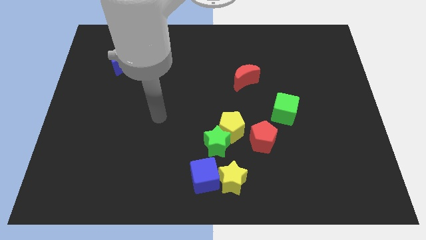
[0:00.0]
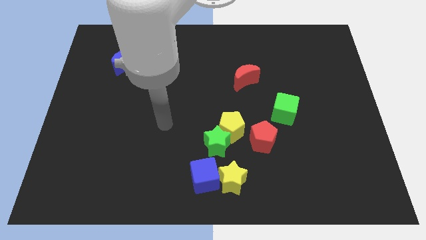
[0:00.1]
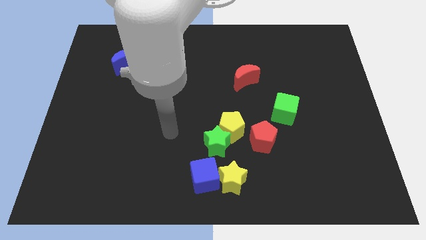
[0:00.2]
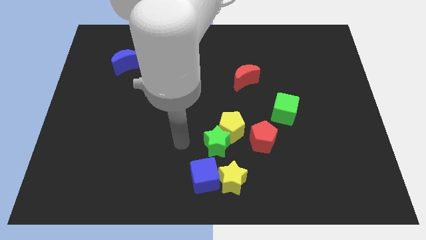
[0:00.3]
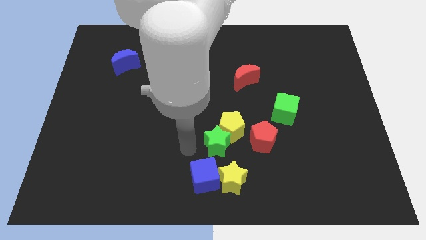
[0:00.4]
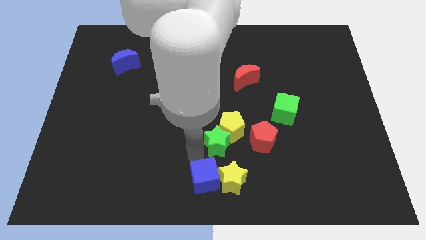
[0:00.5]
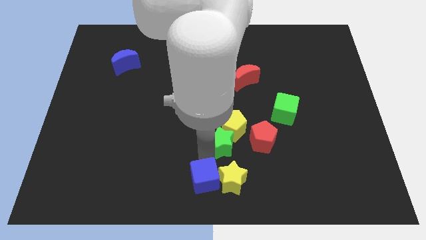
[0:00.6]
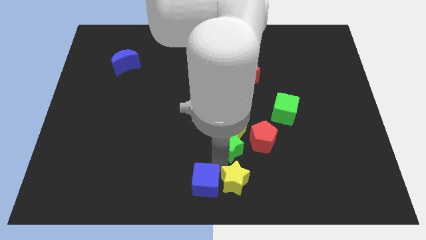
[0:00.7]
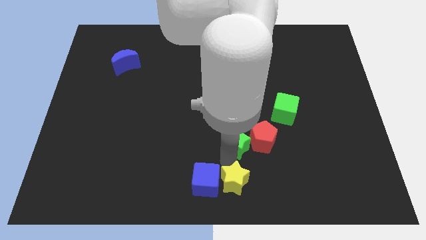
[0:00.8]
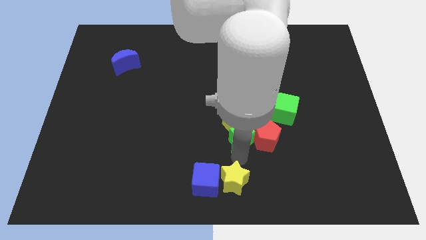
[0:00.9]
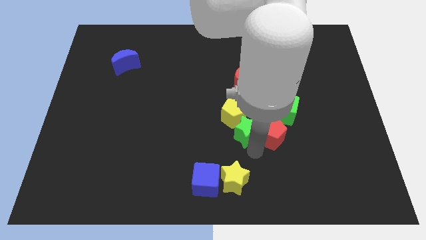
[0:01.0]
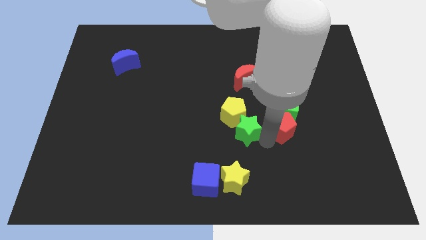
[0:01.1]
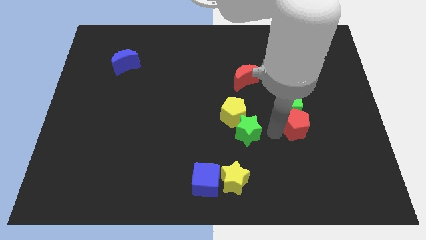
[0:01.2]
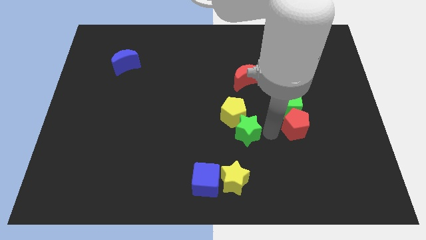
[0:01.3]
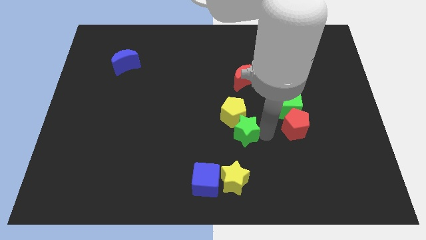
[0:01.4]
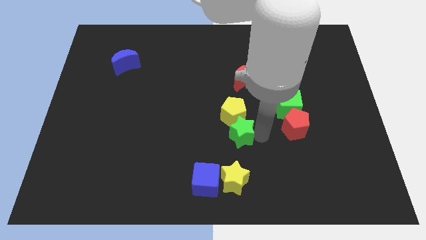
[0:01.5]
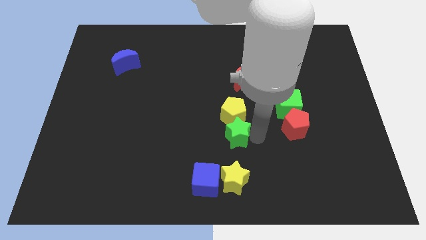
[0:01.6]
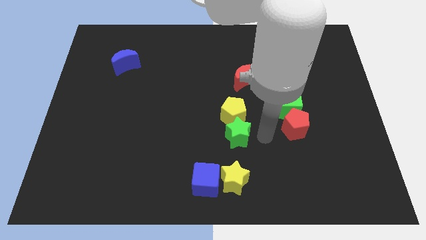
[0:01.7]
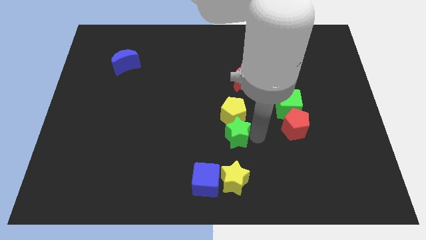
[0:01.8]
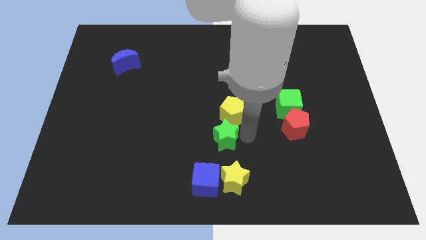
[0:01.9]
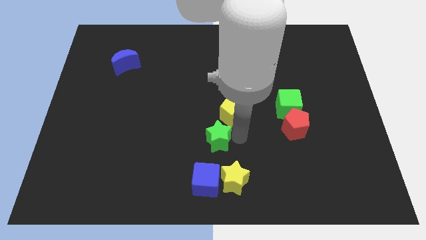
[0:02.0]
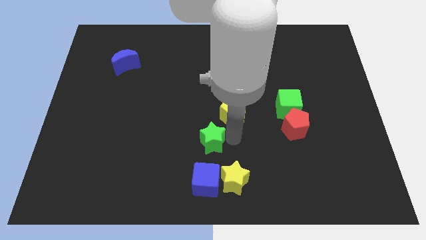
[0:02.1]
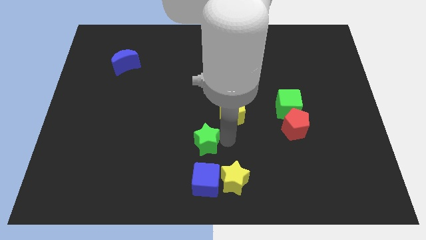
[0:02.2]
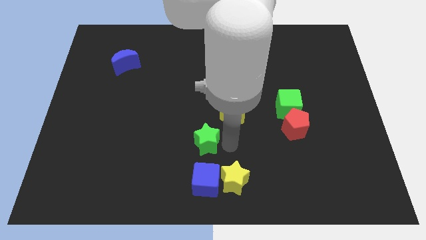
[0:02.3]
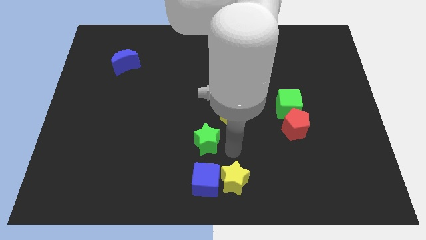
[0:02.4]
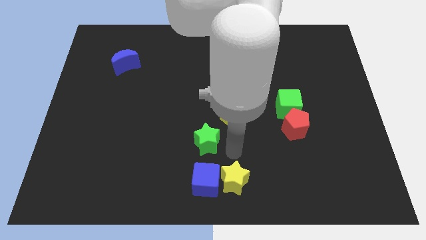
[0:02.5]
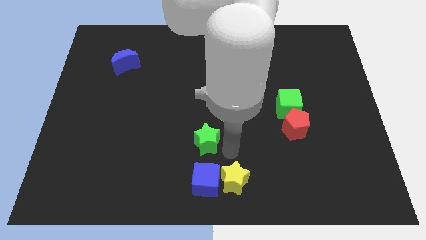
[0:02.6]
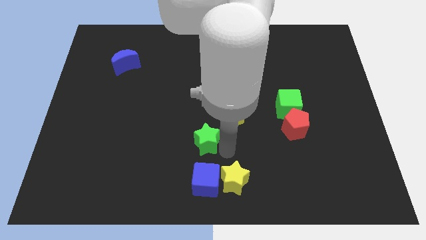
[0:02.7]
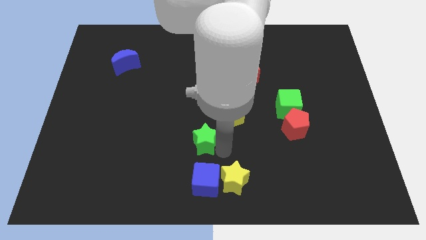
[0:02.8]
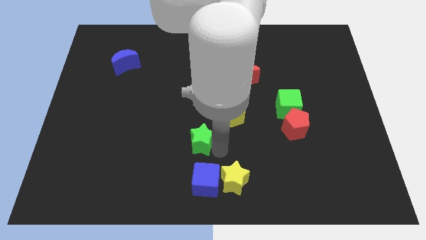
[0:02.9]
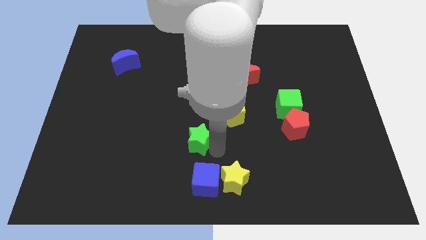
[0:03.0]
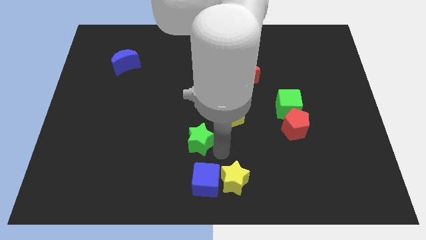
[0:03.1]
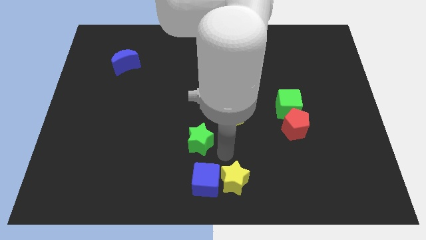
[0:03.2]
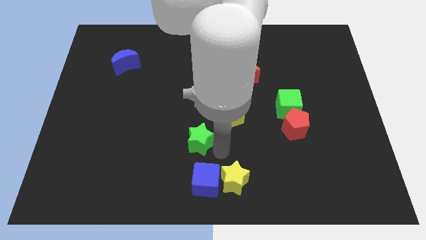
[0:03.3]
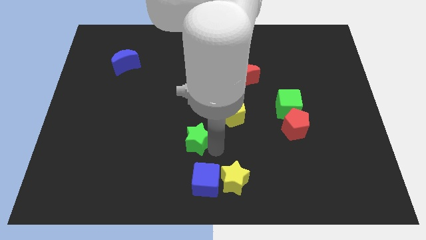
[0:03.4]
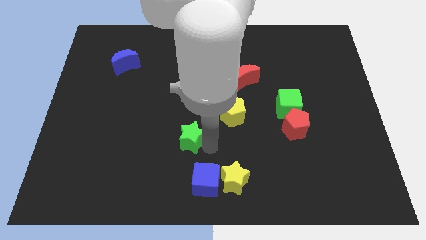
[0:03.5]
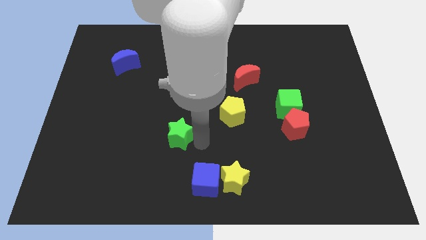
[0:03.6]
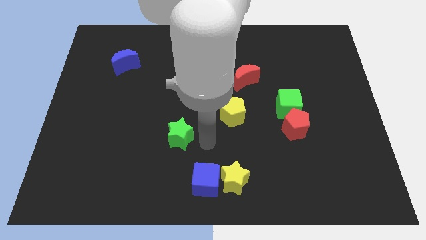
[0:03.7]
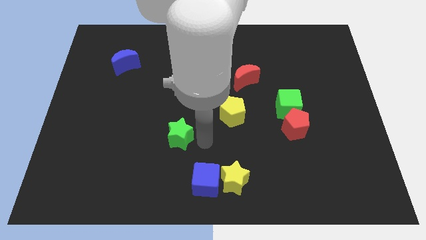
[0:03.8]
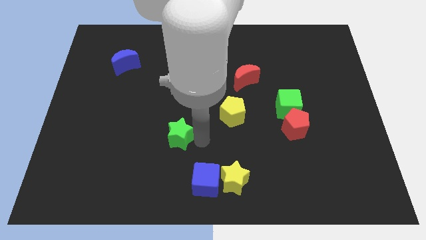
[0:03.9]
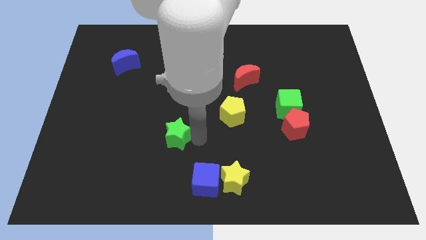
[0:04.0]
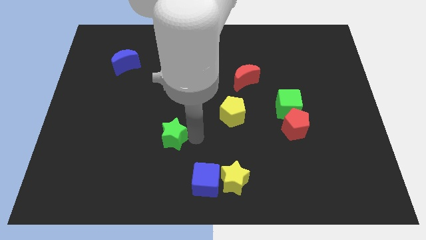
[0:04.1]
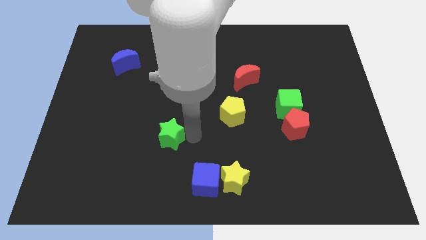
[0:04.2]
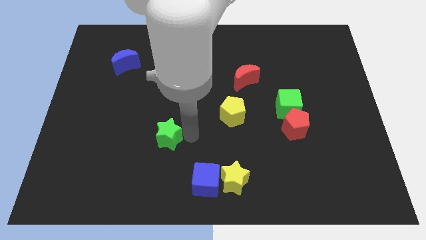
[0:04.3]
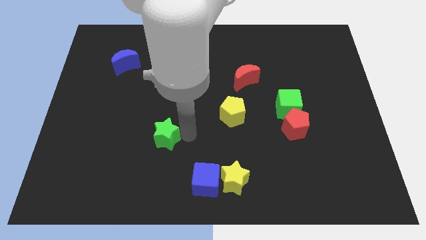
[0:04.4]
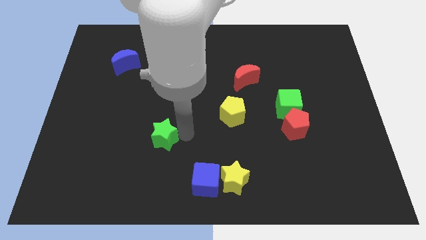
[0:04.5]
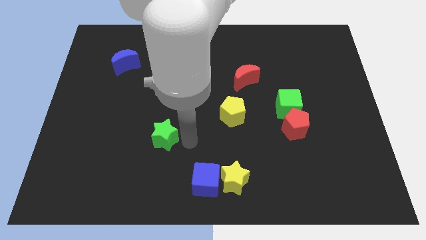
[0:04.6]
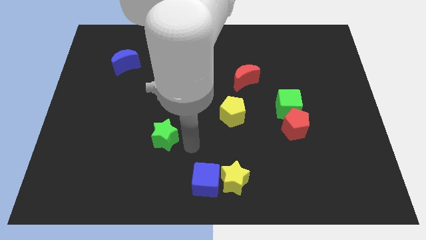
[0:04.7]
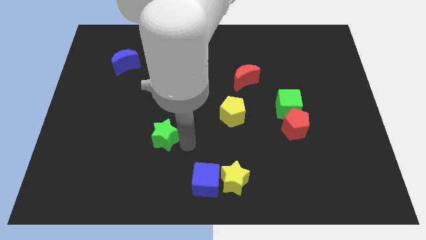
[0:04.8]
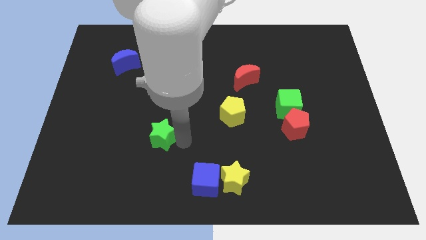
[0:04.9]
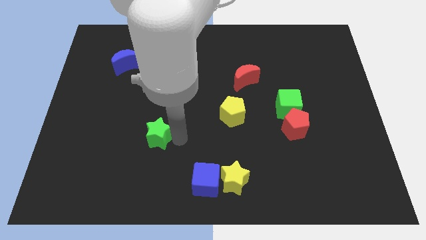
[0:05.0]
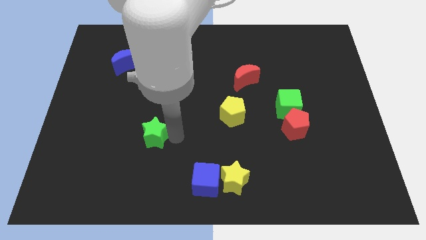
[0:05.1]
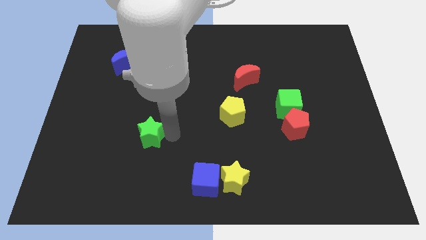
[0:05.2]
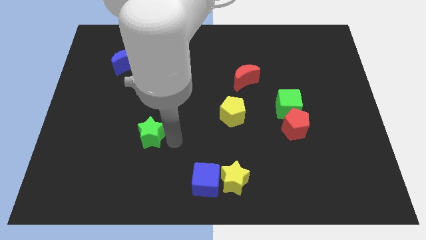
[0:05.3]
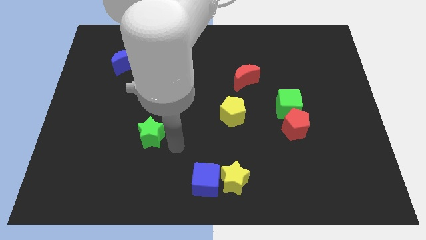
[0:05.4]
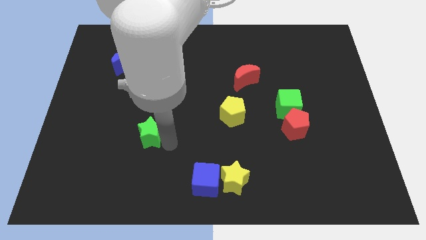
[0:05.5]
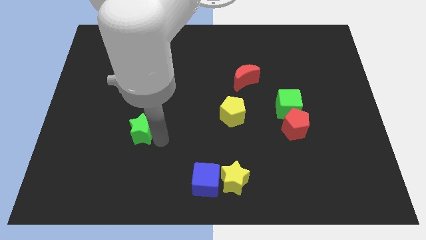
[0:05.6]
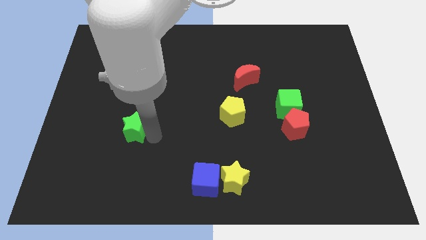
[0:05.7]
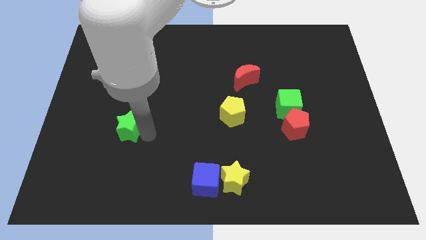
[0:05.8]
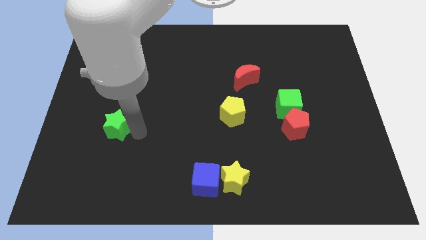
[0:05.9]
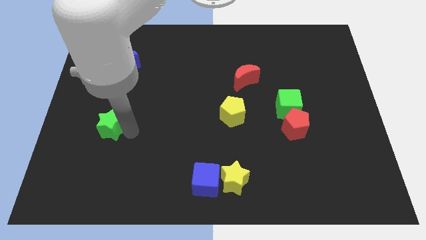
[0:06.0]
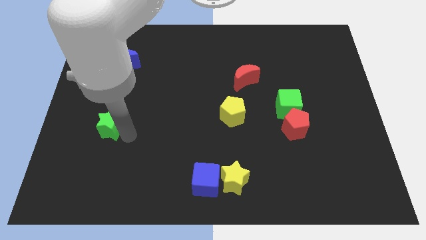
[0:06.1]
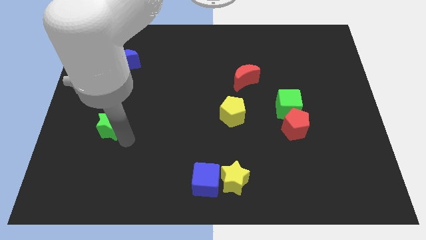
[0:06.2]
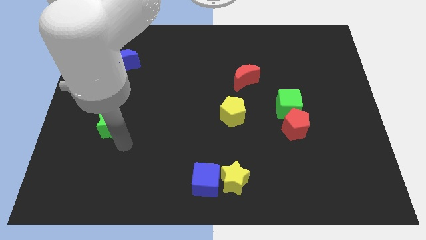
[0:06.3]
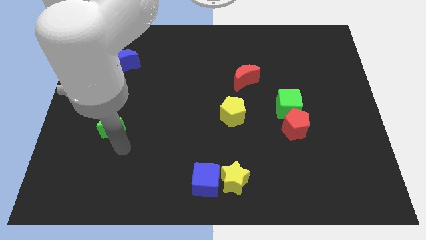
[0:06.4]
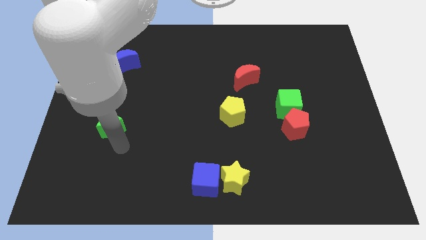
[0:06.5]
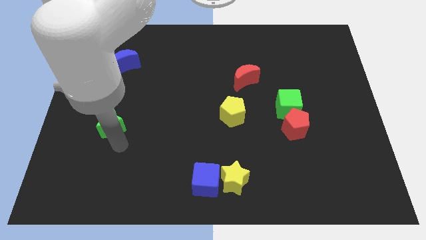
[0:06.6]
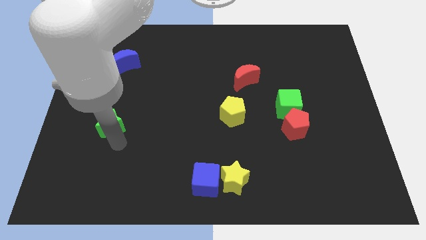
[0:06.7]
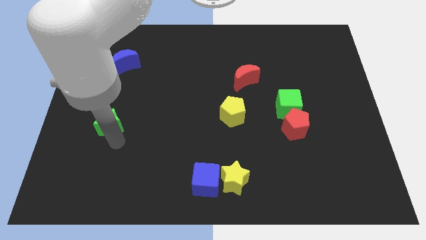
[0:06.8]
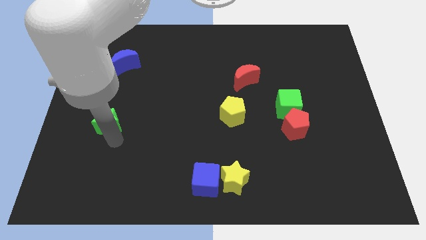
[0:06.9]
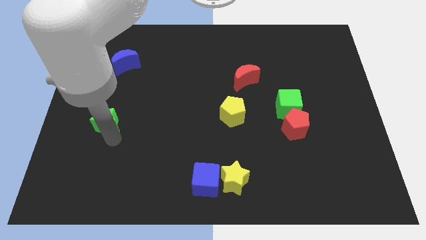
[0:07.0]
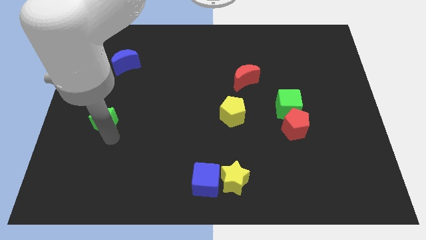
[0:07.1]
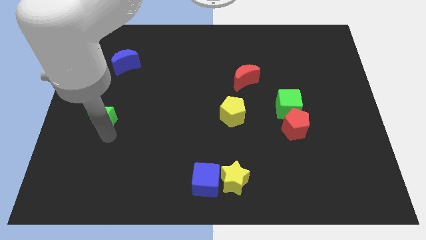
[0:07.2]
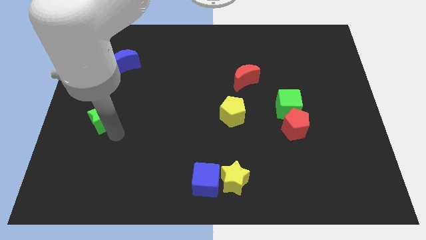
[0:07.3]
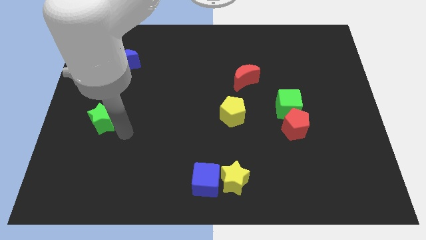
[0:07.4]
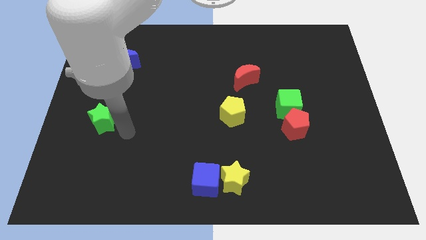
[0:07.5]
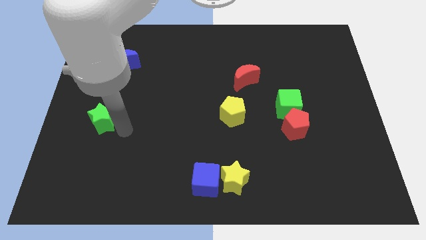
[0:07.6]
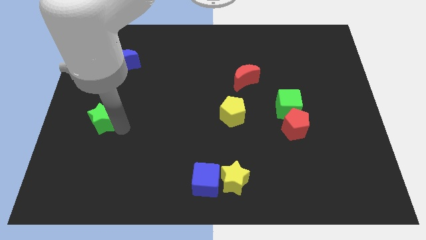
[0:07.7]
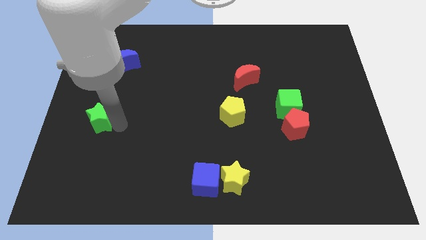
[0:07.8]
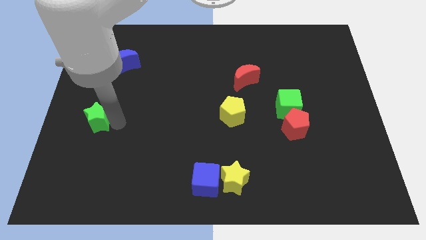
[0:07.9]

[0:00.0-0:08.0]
put the green star to the left side
